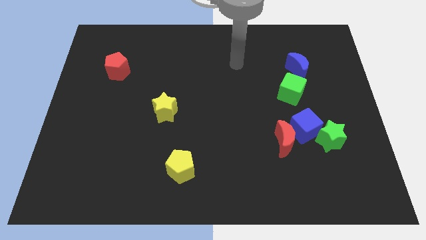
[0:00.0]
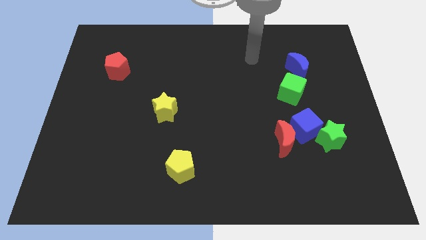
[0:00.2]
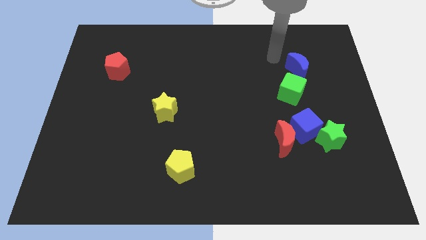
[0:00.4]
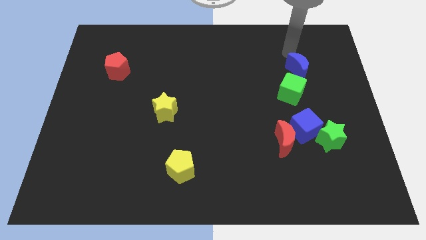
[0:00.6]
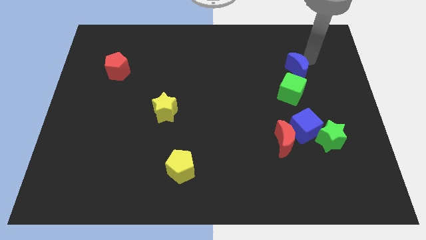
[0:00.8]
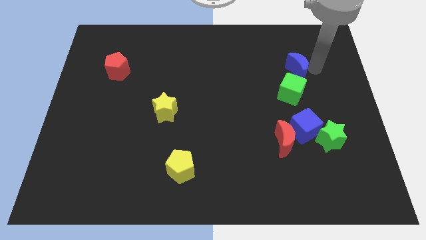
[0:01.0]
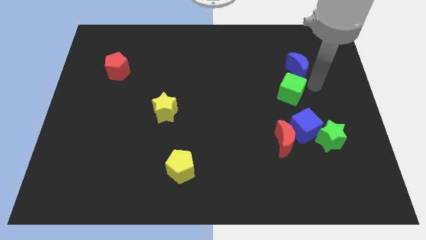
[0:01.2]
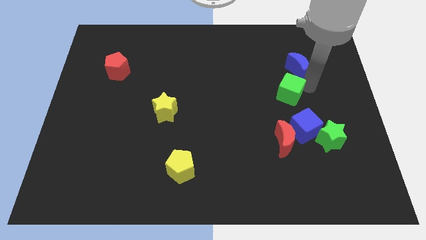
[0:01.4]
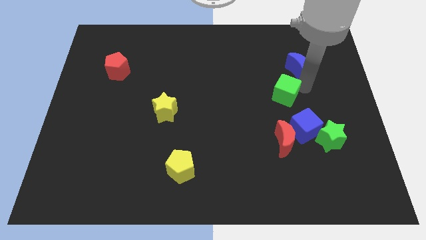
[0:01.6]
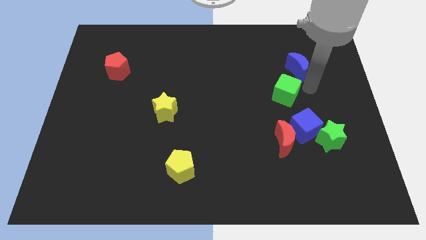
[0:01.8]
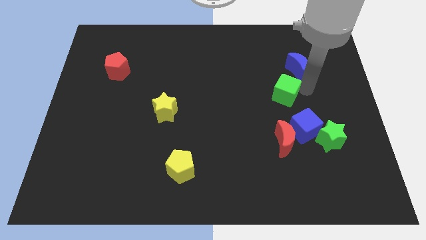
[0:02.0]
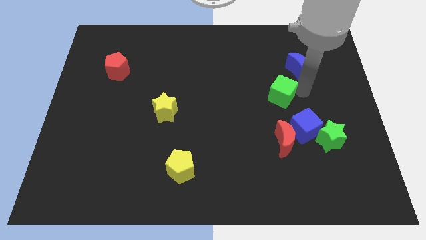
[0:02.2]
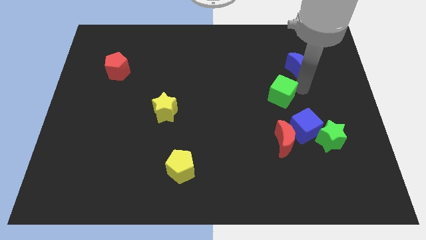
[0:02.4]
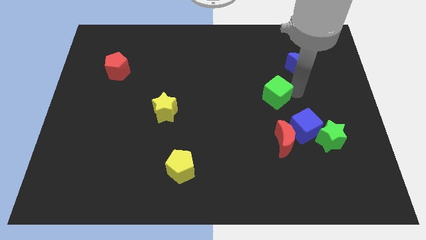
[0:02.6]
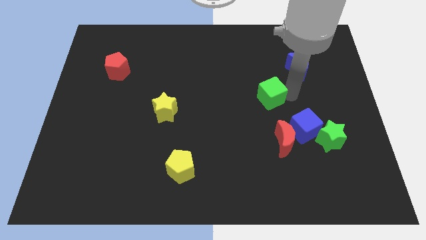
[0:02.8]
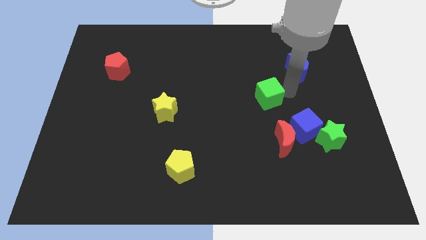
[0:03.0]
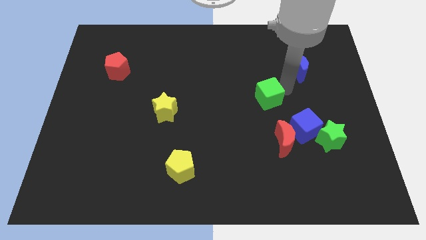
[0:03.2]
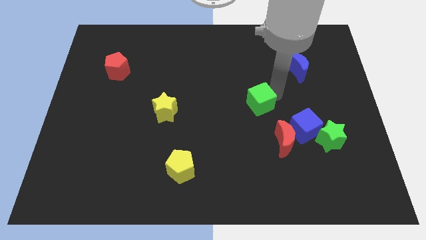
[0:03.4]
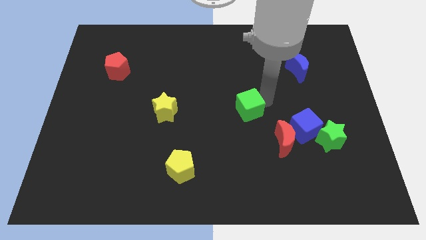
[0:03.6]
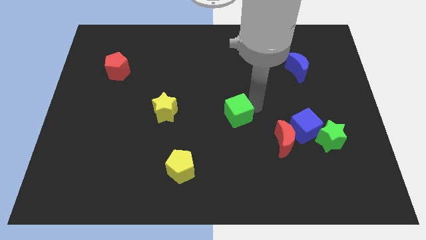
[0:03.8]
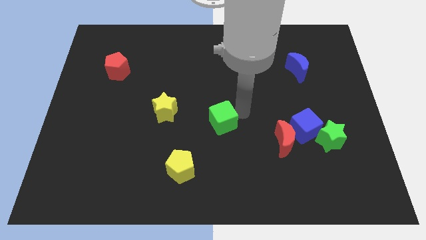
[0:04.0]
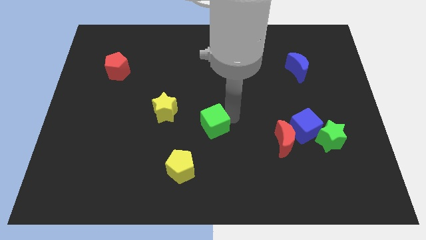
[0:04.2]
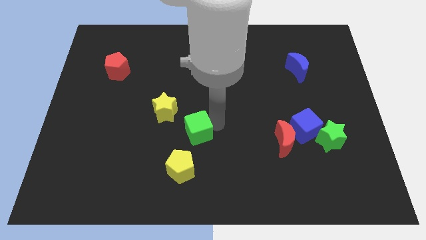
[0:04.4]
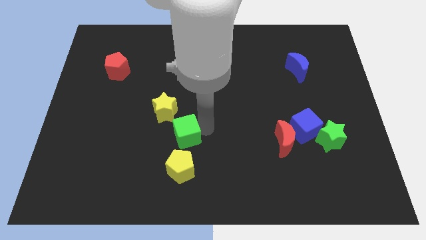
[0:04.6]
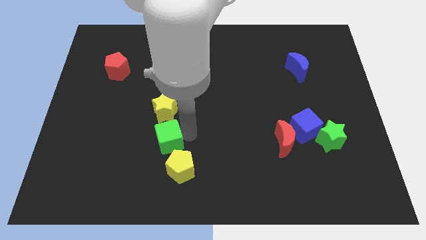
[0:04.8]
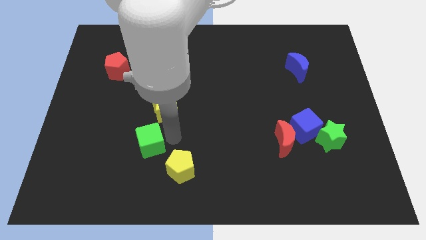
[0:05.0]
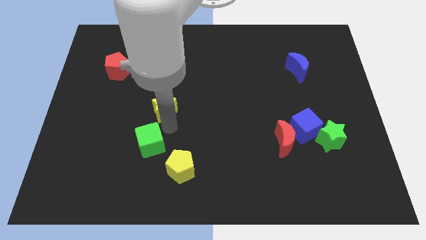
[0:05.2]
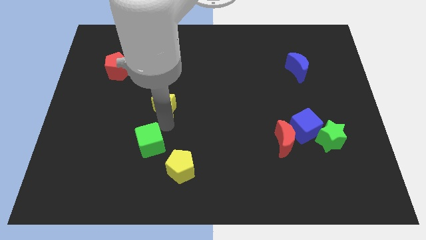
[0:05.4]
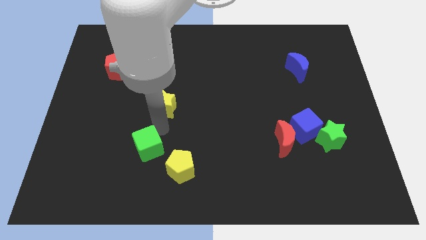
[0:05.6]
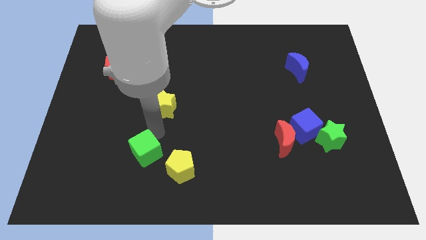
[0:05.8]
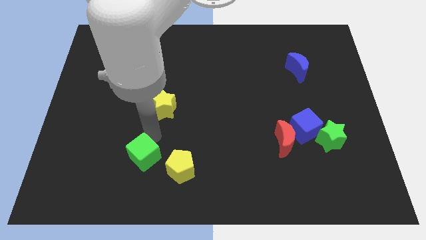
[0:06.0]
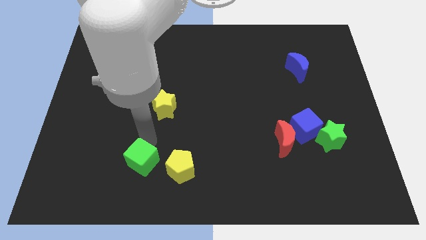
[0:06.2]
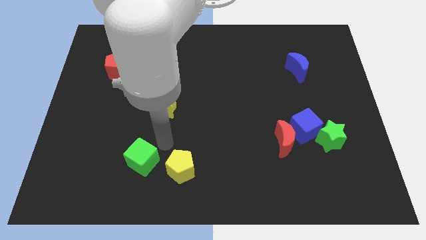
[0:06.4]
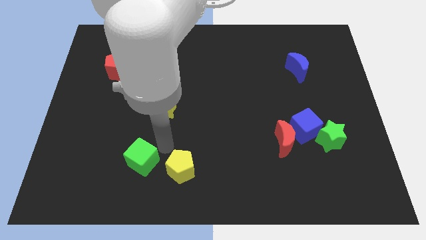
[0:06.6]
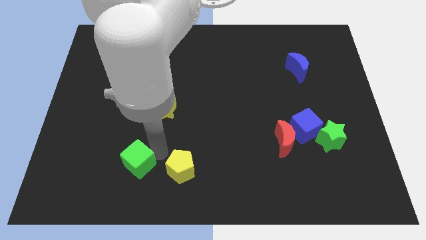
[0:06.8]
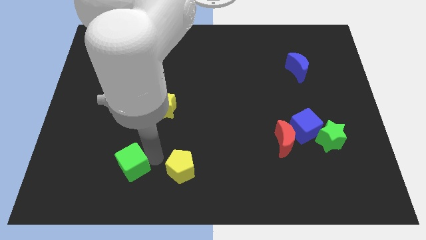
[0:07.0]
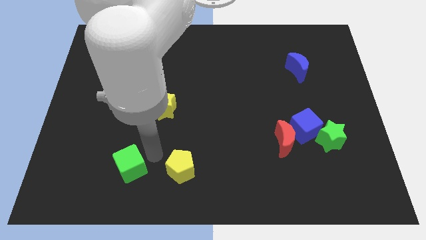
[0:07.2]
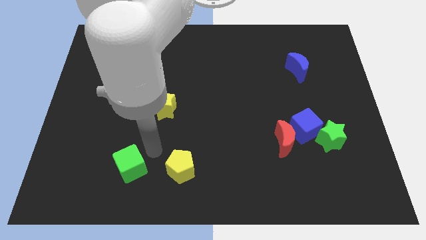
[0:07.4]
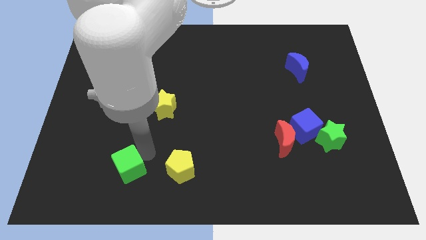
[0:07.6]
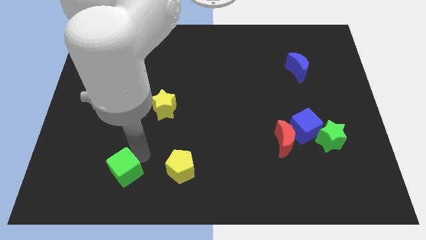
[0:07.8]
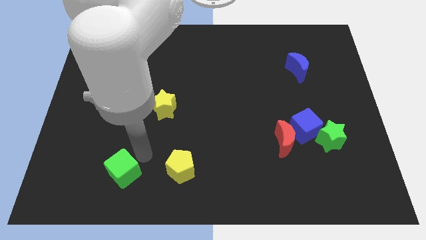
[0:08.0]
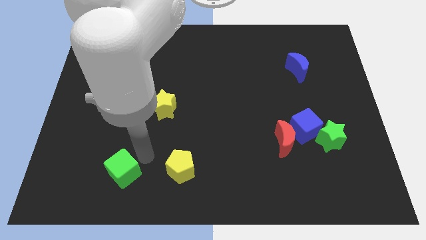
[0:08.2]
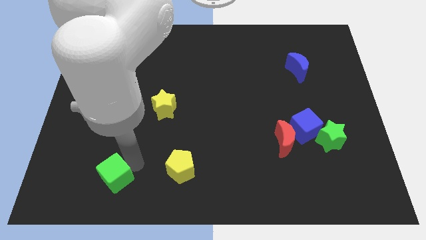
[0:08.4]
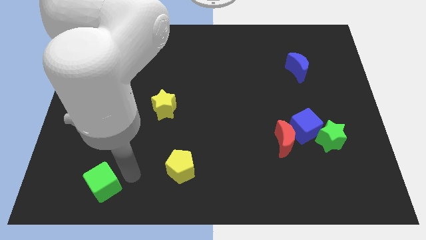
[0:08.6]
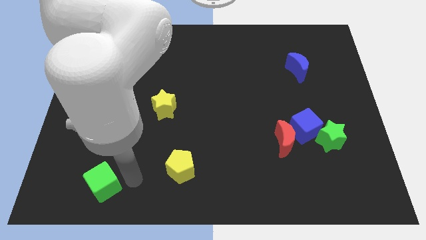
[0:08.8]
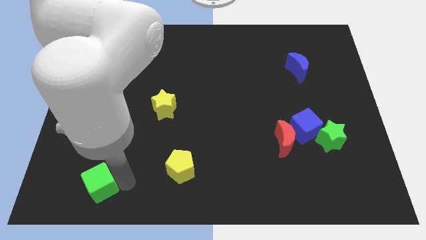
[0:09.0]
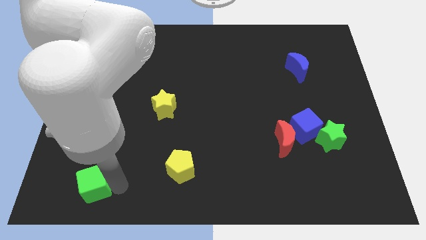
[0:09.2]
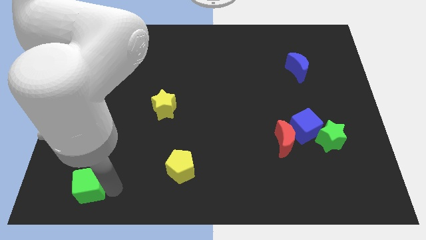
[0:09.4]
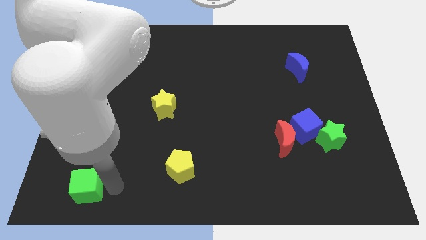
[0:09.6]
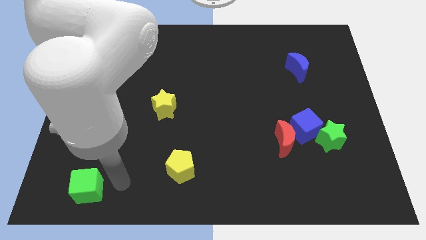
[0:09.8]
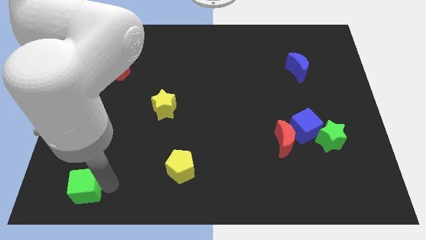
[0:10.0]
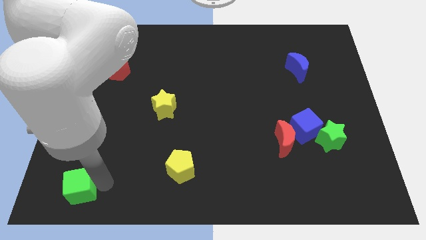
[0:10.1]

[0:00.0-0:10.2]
push the green cube to the bottom left of the board
